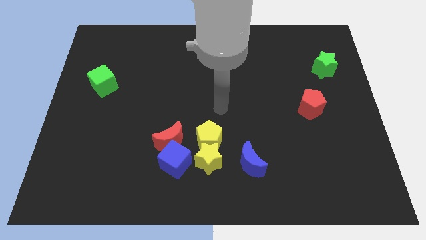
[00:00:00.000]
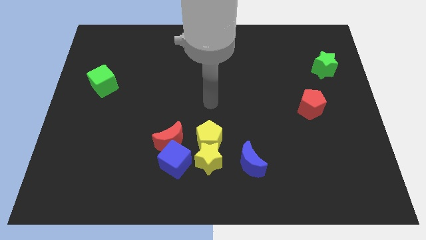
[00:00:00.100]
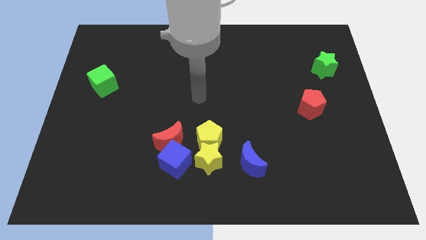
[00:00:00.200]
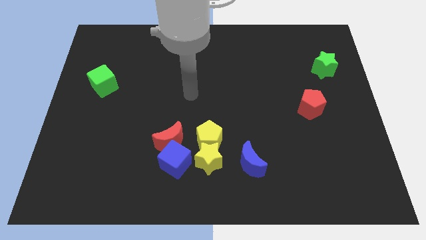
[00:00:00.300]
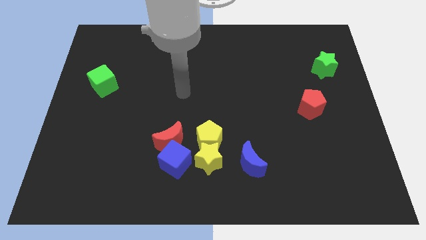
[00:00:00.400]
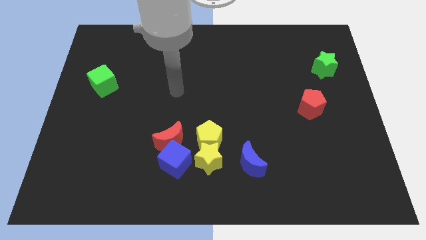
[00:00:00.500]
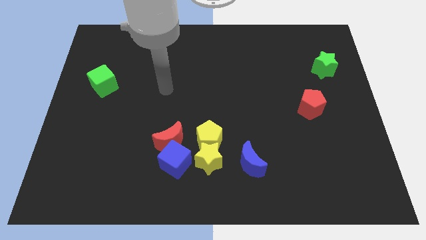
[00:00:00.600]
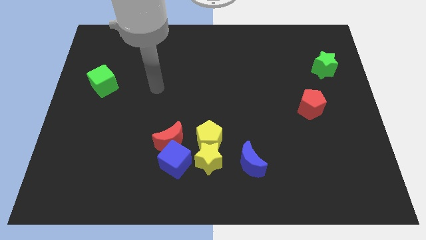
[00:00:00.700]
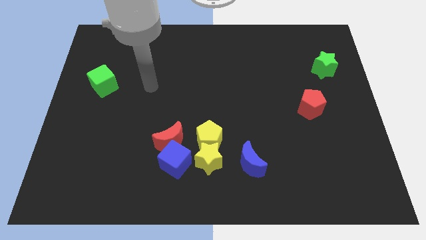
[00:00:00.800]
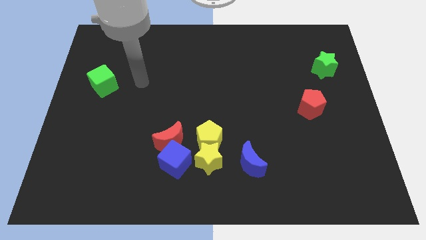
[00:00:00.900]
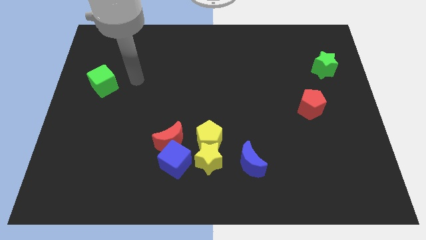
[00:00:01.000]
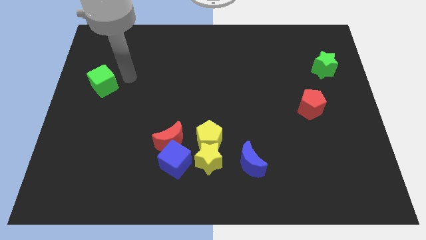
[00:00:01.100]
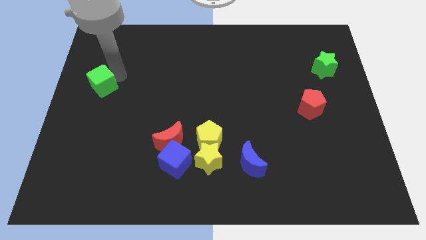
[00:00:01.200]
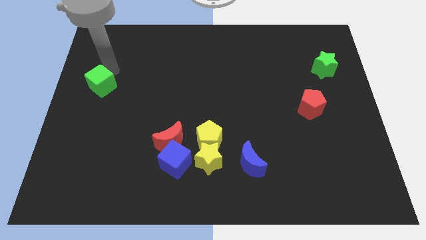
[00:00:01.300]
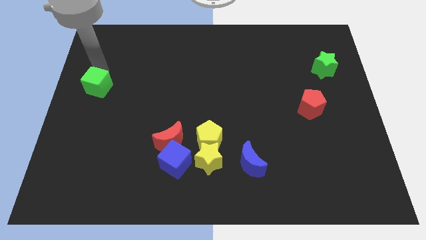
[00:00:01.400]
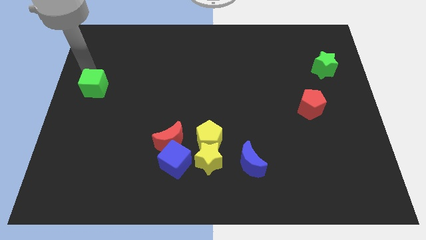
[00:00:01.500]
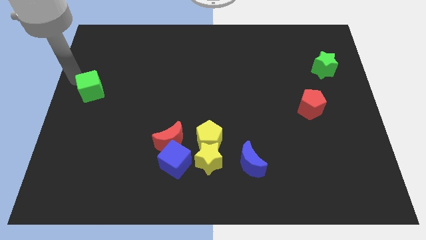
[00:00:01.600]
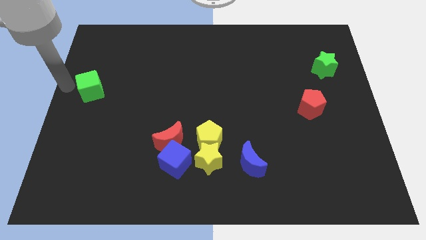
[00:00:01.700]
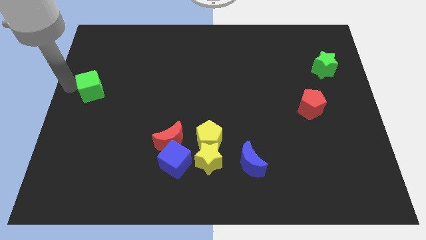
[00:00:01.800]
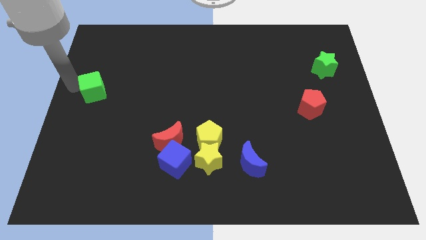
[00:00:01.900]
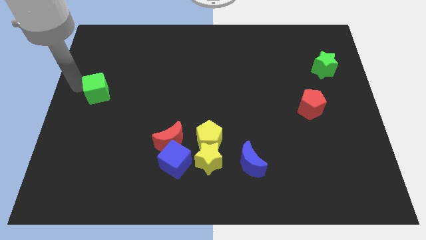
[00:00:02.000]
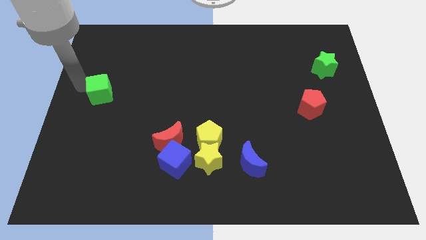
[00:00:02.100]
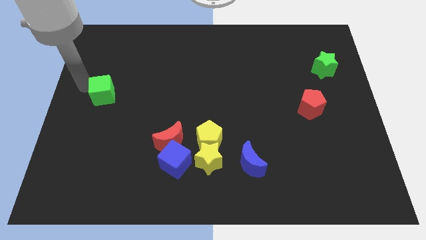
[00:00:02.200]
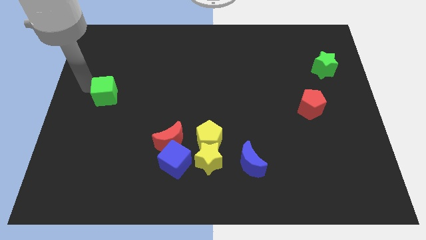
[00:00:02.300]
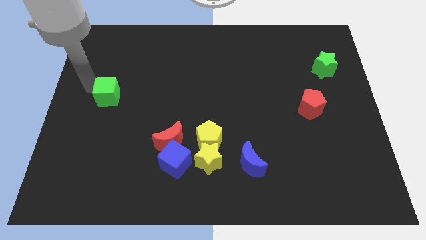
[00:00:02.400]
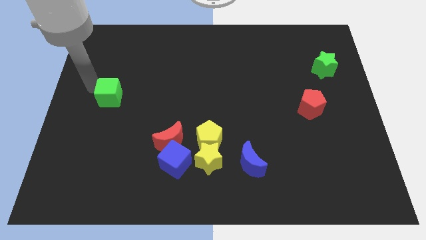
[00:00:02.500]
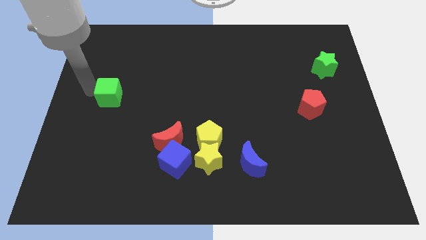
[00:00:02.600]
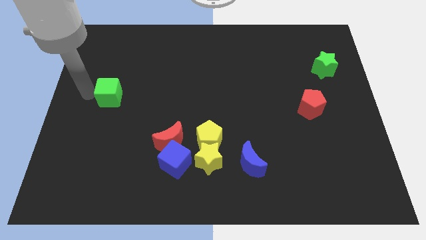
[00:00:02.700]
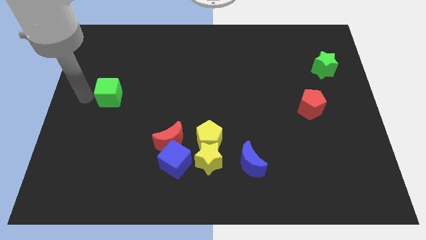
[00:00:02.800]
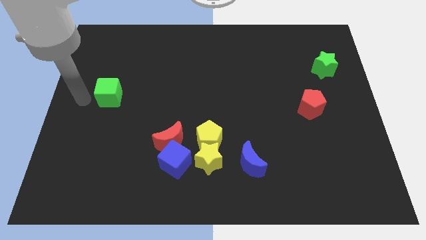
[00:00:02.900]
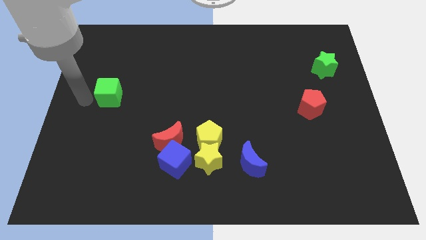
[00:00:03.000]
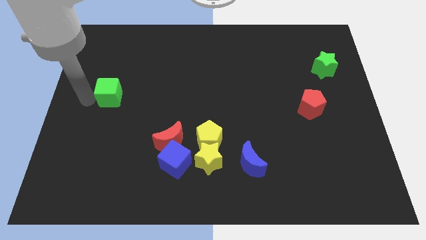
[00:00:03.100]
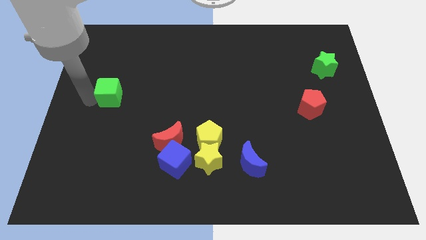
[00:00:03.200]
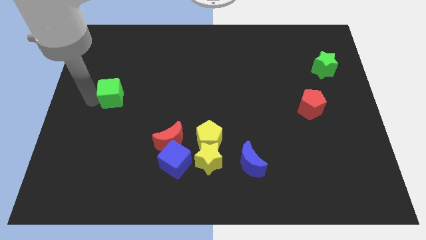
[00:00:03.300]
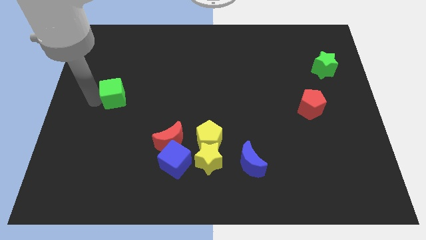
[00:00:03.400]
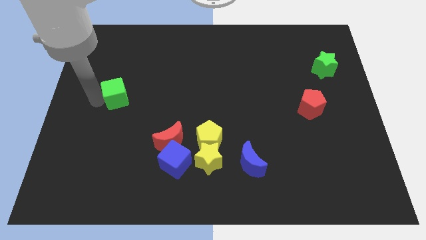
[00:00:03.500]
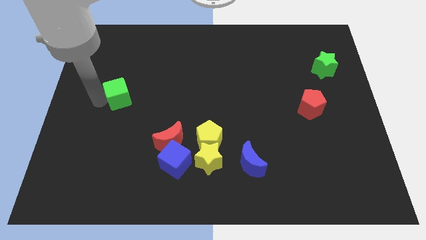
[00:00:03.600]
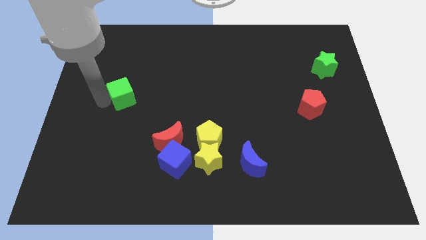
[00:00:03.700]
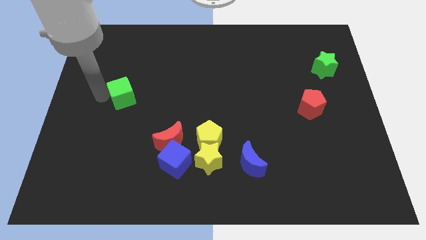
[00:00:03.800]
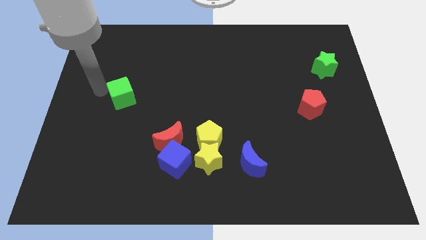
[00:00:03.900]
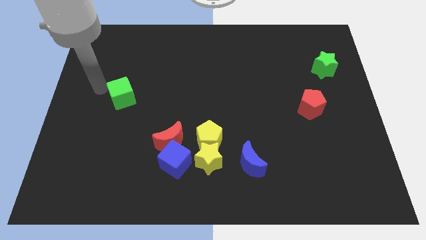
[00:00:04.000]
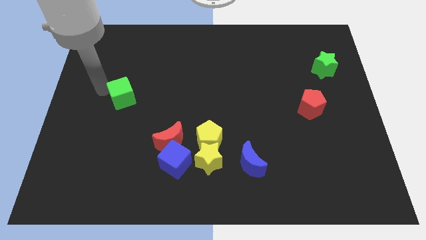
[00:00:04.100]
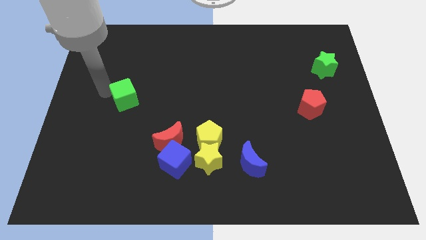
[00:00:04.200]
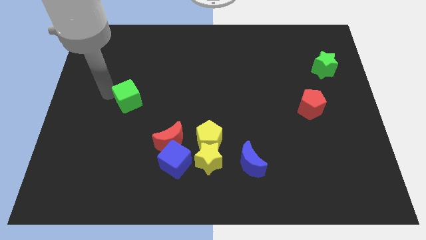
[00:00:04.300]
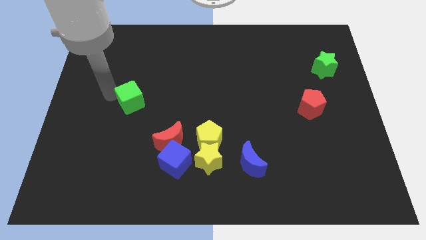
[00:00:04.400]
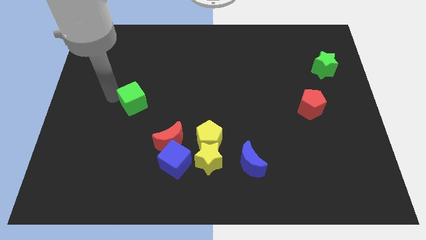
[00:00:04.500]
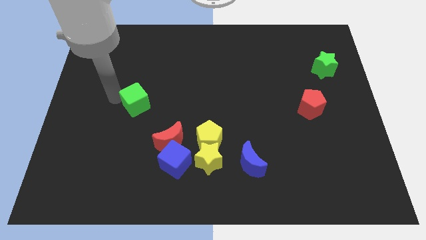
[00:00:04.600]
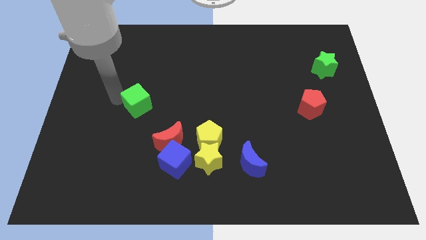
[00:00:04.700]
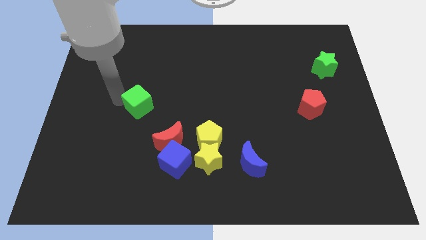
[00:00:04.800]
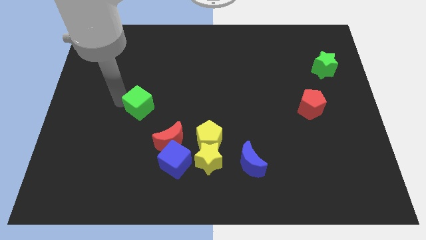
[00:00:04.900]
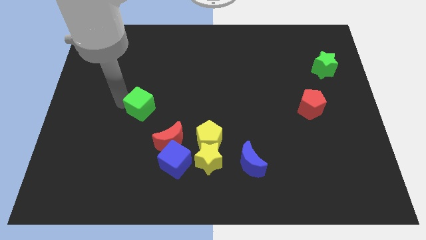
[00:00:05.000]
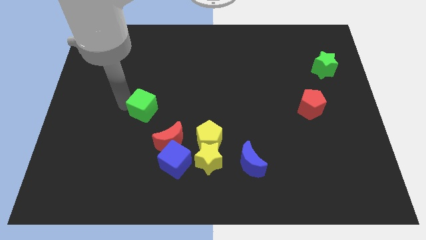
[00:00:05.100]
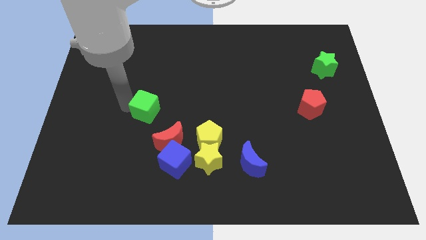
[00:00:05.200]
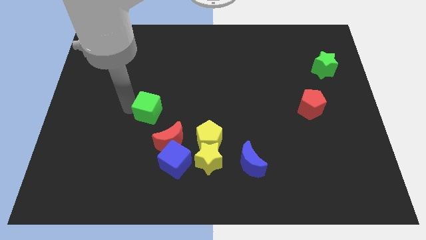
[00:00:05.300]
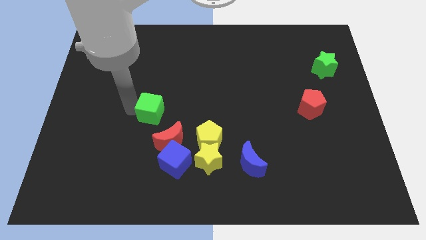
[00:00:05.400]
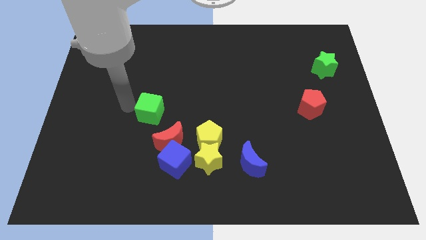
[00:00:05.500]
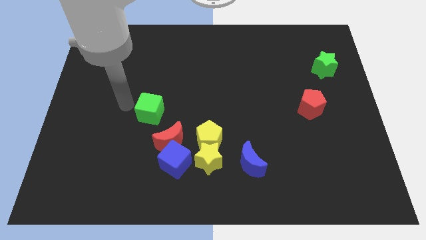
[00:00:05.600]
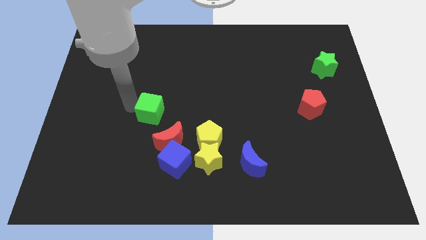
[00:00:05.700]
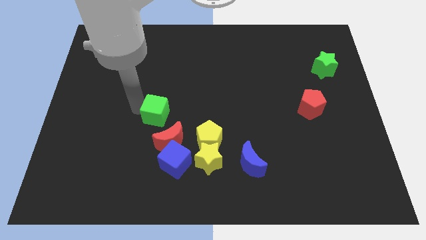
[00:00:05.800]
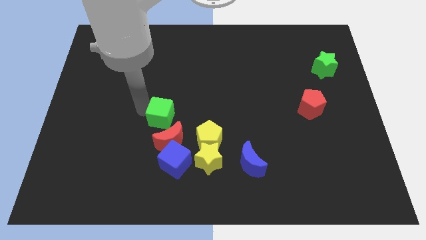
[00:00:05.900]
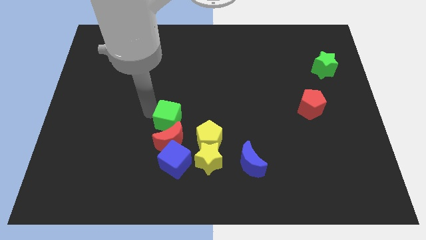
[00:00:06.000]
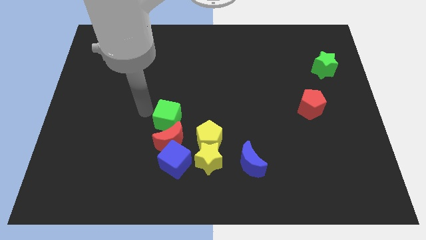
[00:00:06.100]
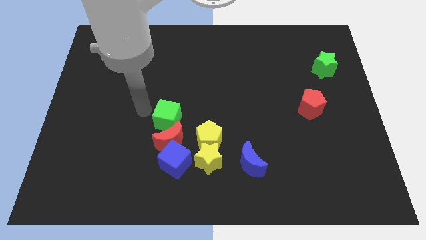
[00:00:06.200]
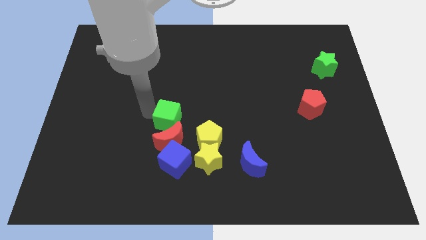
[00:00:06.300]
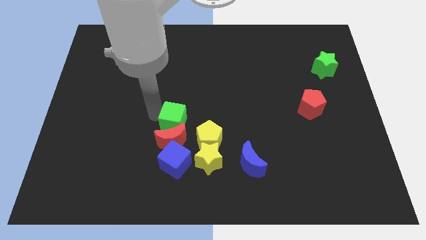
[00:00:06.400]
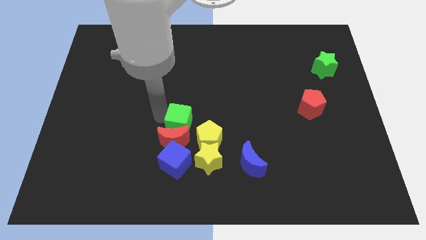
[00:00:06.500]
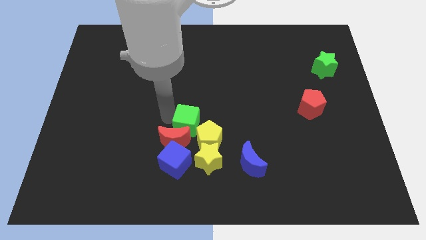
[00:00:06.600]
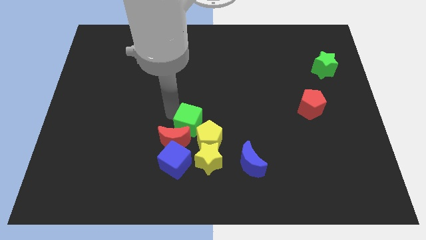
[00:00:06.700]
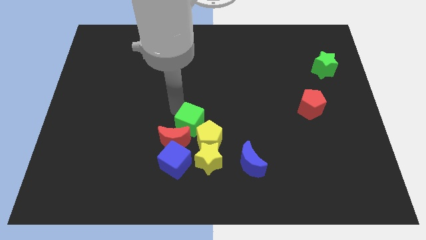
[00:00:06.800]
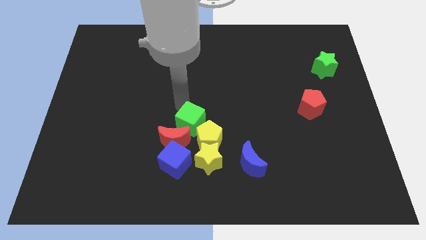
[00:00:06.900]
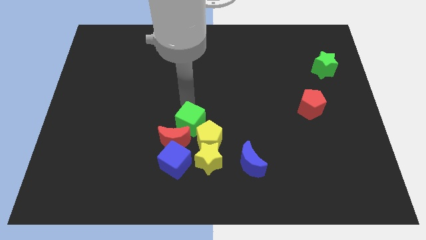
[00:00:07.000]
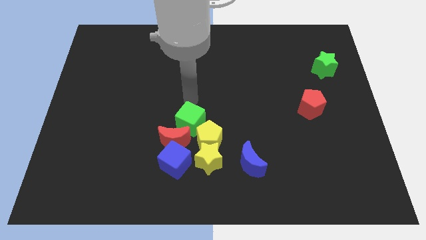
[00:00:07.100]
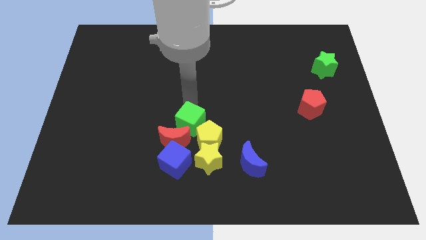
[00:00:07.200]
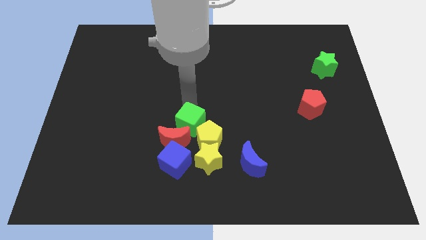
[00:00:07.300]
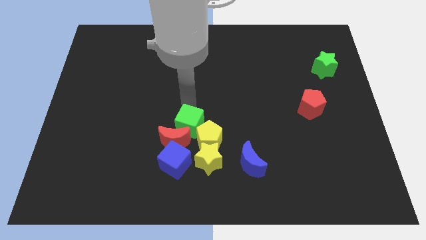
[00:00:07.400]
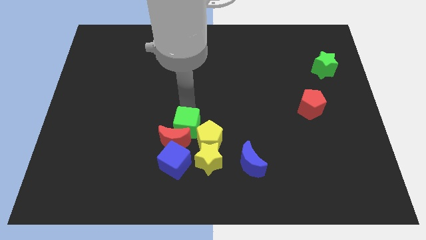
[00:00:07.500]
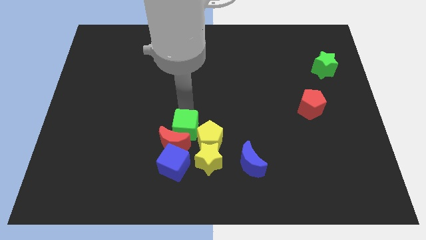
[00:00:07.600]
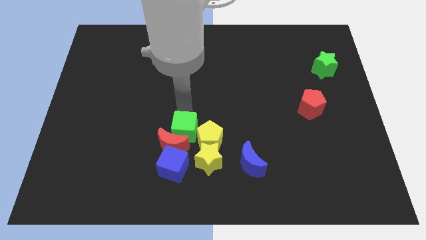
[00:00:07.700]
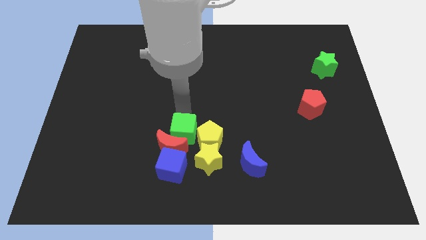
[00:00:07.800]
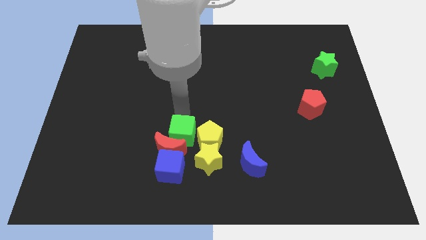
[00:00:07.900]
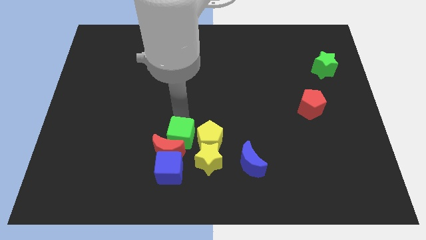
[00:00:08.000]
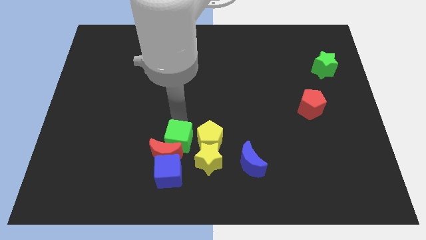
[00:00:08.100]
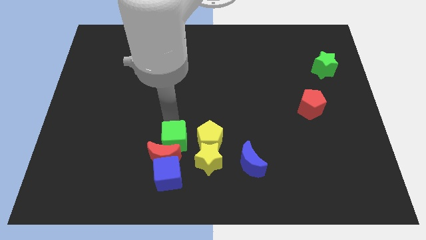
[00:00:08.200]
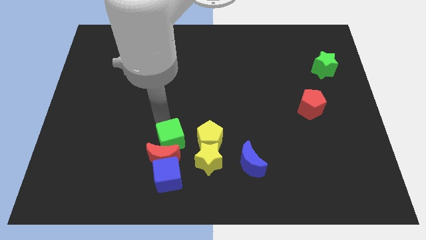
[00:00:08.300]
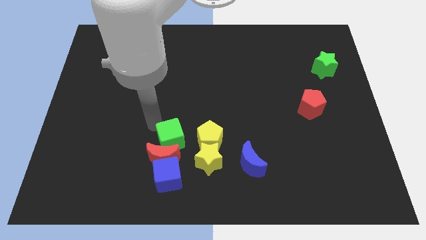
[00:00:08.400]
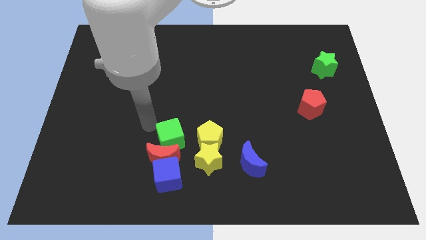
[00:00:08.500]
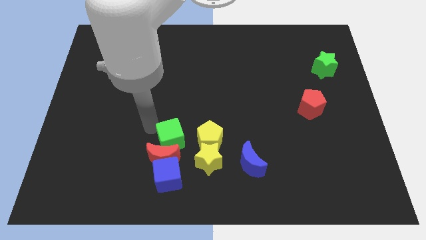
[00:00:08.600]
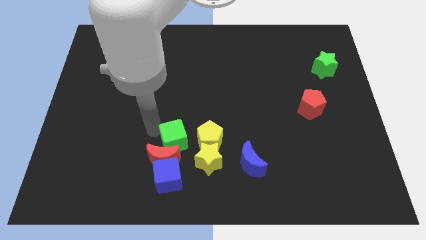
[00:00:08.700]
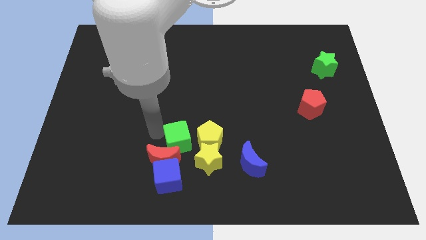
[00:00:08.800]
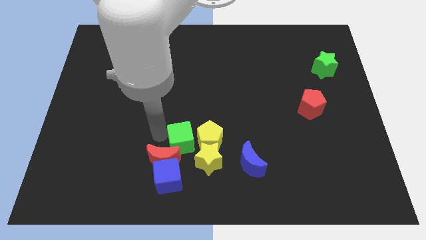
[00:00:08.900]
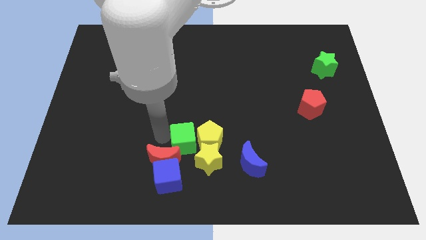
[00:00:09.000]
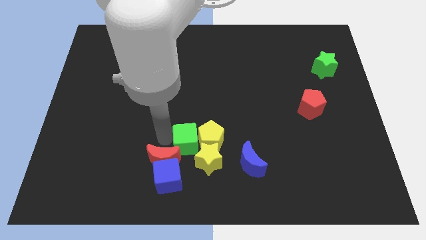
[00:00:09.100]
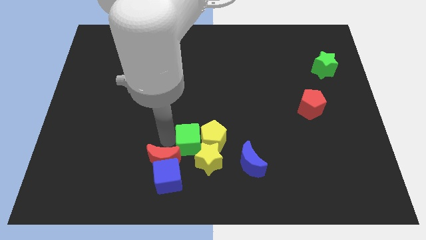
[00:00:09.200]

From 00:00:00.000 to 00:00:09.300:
slide the green cube next to the yellow star
